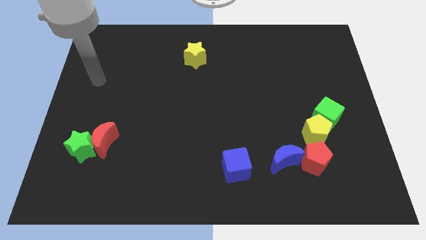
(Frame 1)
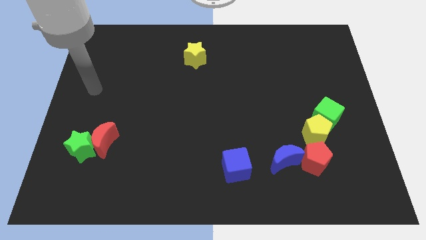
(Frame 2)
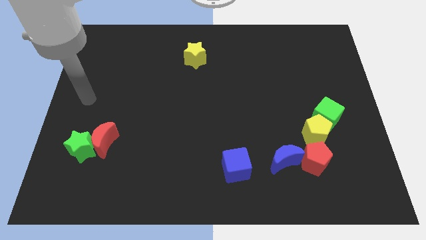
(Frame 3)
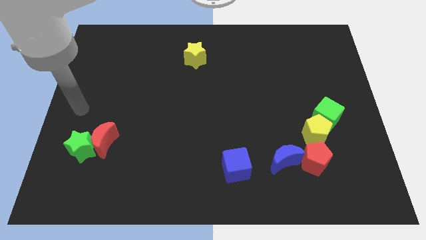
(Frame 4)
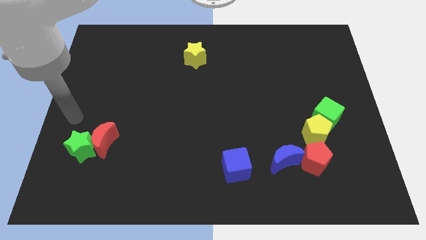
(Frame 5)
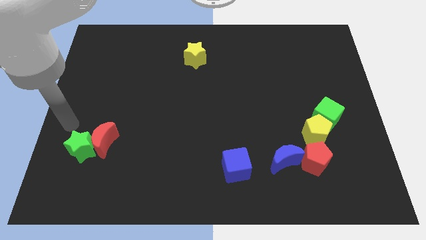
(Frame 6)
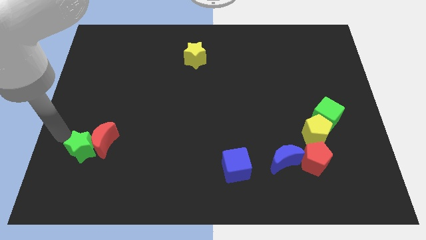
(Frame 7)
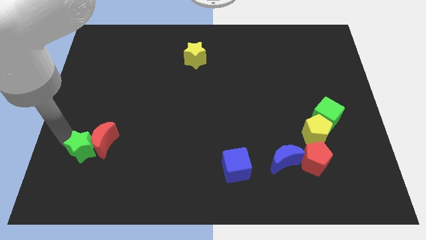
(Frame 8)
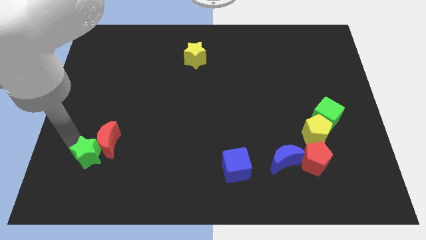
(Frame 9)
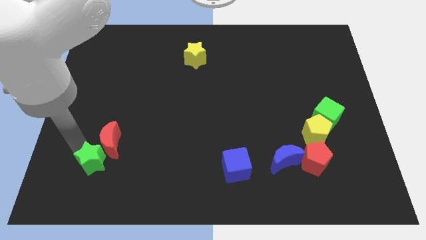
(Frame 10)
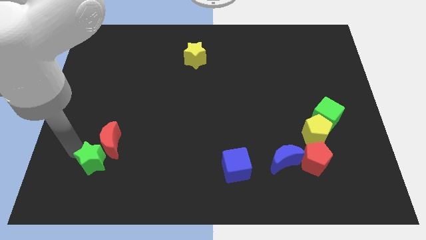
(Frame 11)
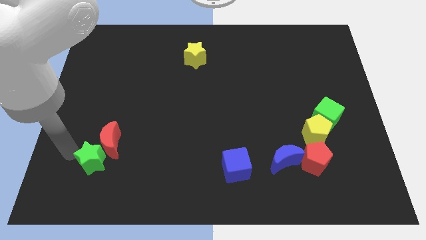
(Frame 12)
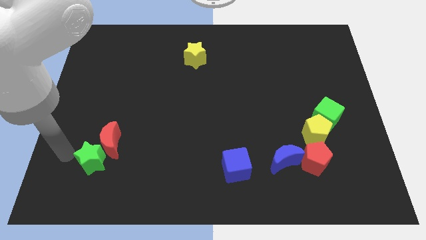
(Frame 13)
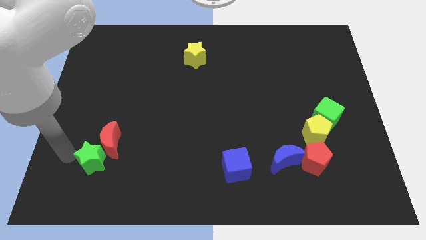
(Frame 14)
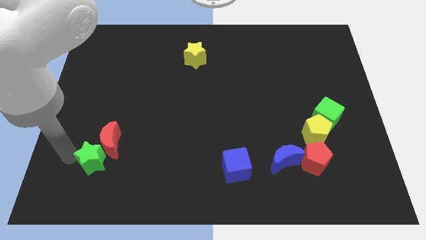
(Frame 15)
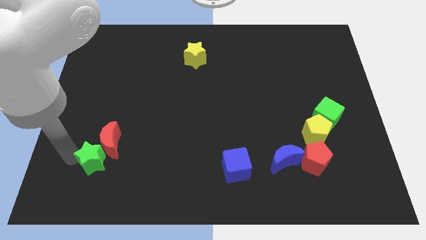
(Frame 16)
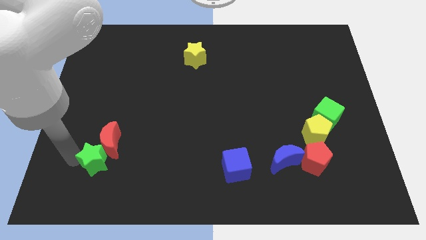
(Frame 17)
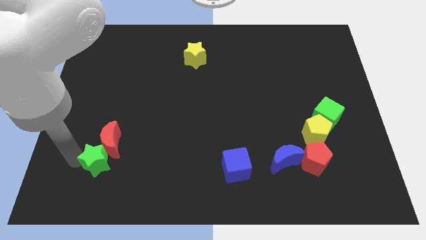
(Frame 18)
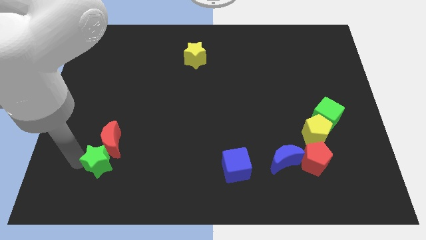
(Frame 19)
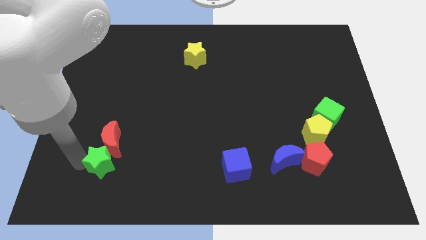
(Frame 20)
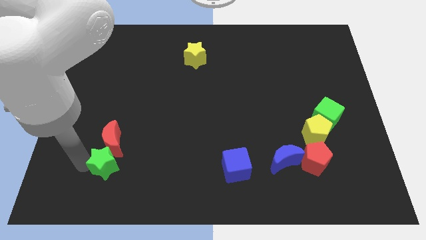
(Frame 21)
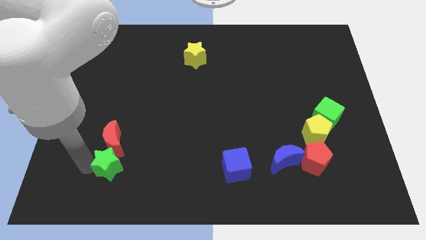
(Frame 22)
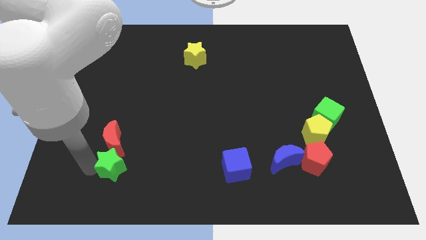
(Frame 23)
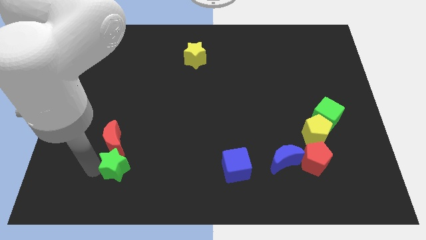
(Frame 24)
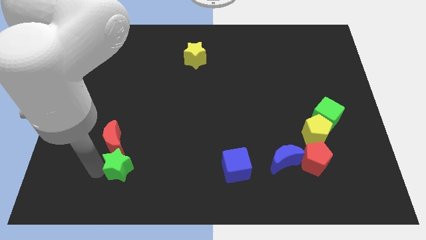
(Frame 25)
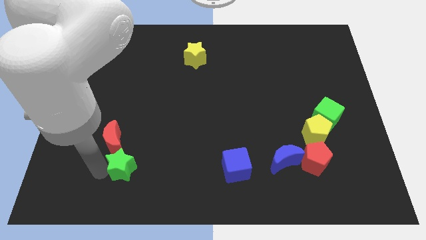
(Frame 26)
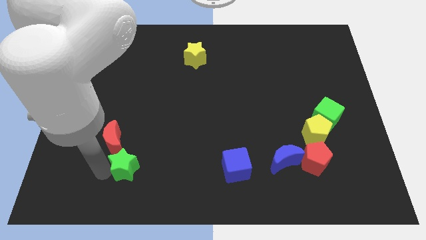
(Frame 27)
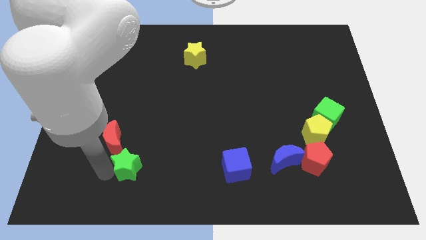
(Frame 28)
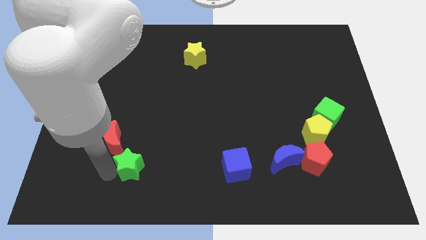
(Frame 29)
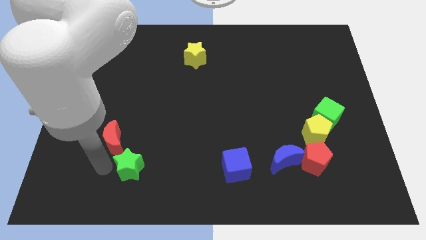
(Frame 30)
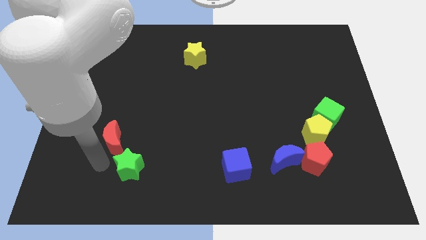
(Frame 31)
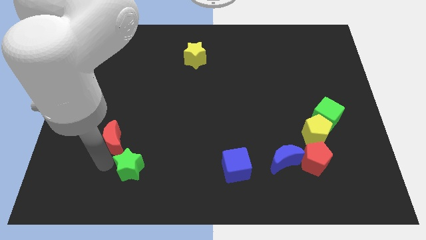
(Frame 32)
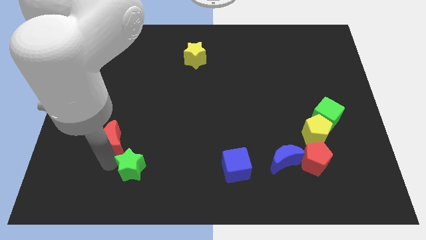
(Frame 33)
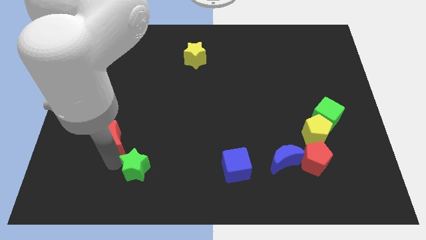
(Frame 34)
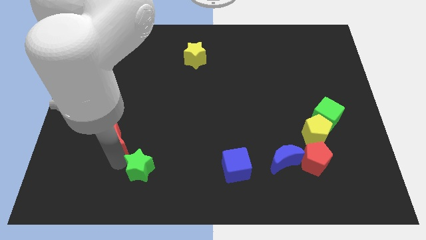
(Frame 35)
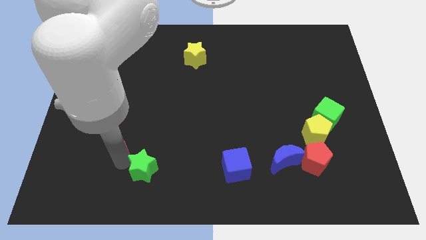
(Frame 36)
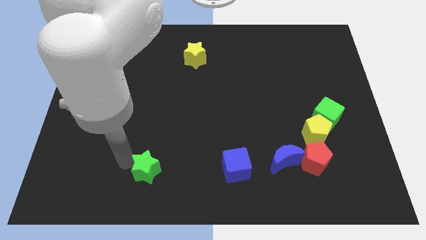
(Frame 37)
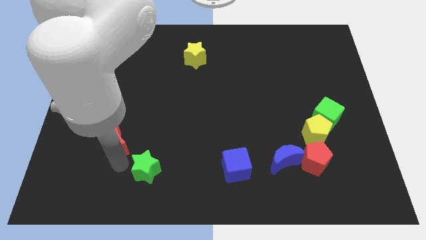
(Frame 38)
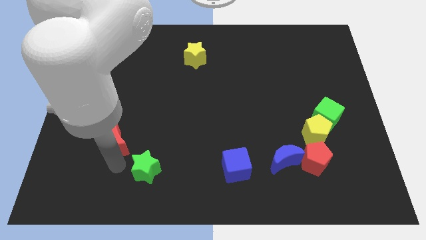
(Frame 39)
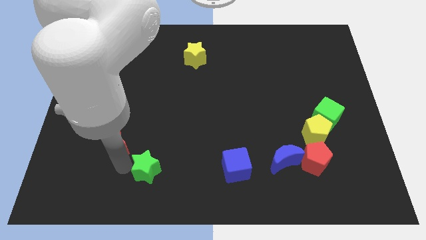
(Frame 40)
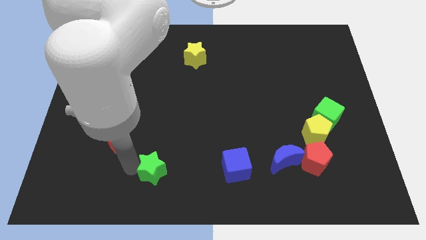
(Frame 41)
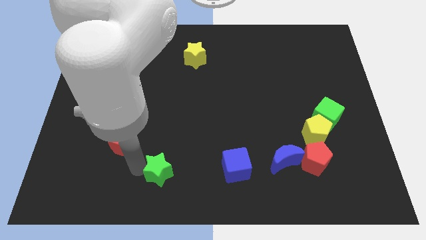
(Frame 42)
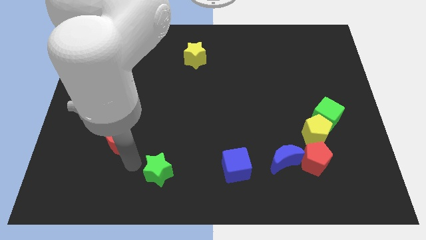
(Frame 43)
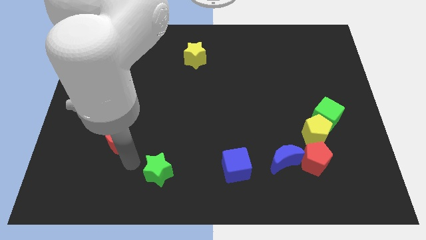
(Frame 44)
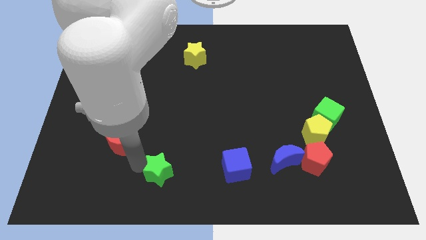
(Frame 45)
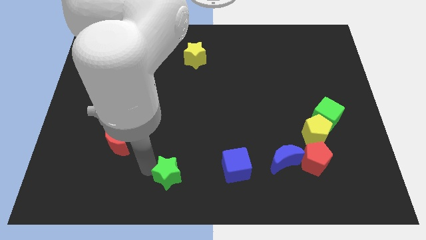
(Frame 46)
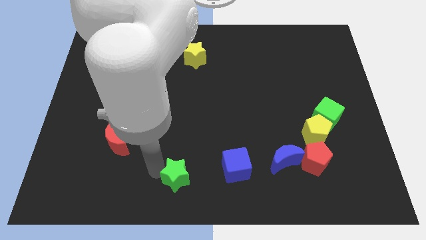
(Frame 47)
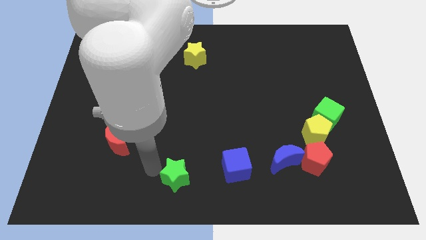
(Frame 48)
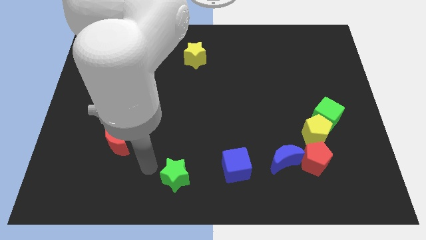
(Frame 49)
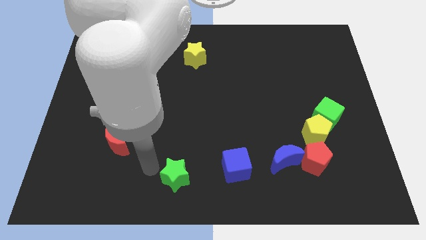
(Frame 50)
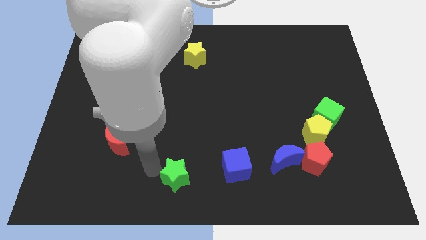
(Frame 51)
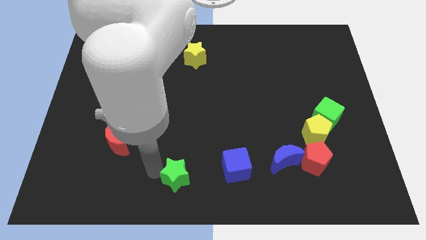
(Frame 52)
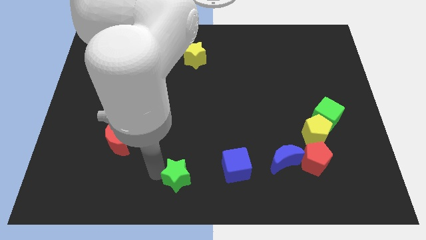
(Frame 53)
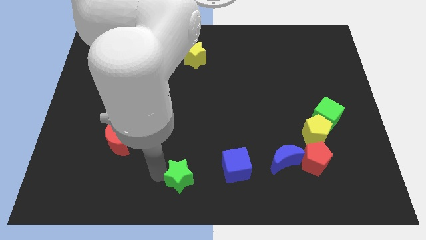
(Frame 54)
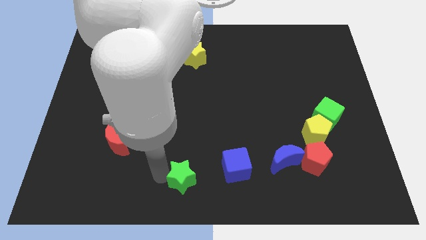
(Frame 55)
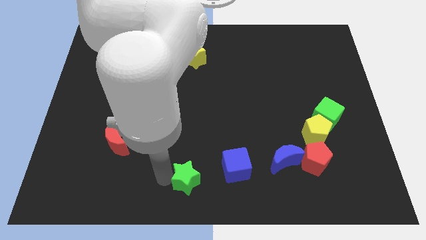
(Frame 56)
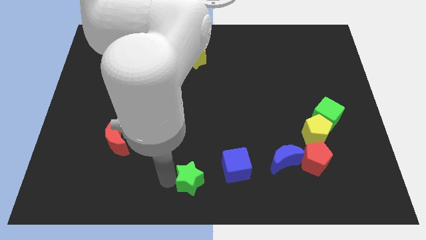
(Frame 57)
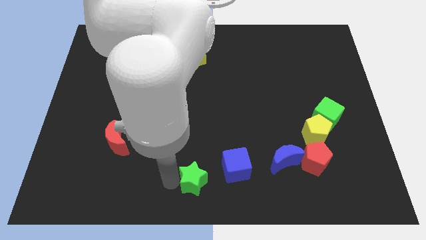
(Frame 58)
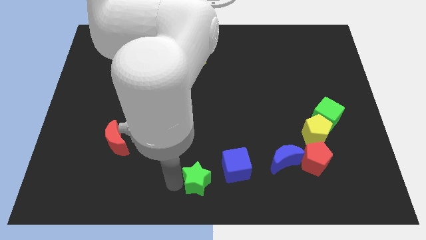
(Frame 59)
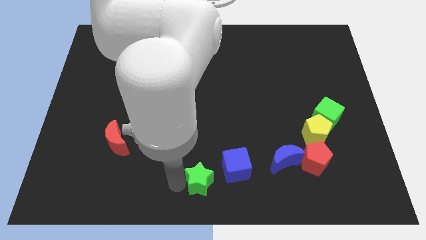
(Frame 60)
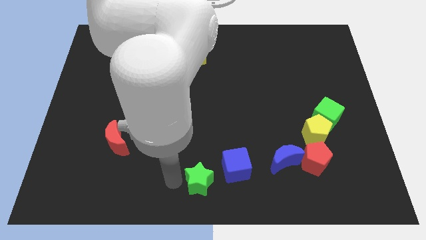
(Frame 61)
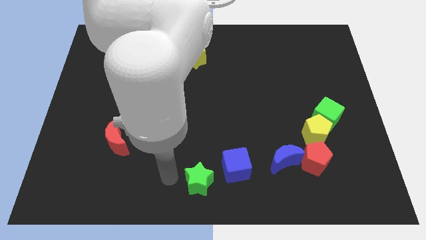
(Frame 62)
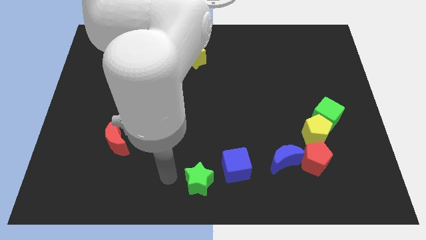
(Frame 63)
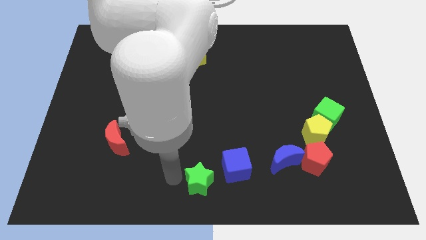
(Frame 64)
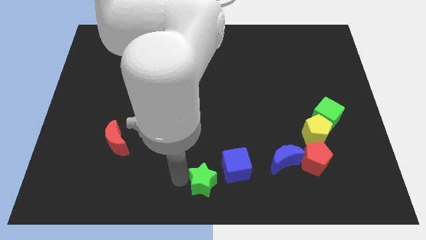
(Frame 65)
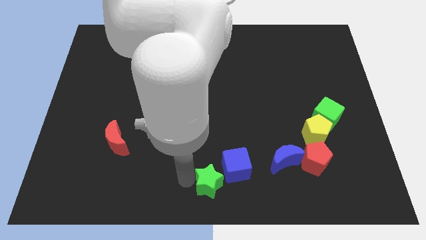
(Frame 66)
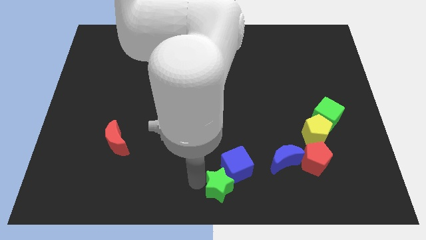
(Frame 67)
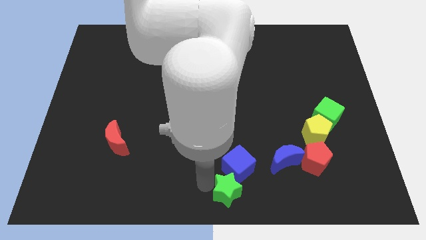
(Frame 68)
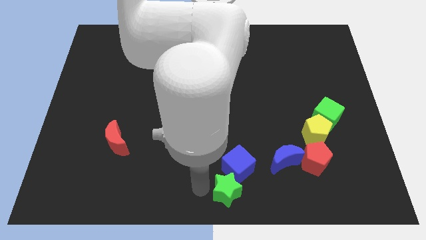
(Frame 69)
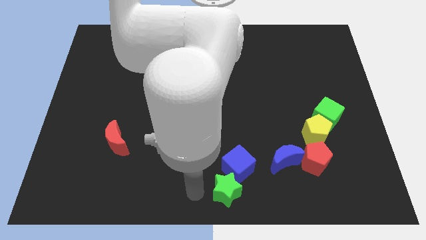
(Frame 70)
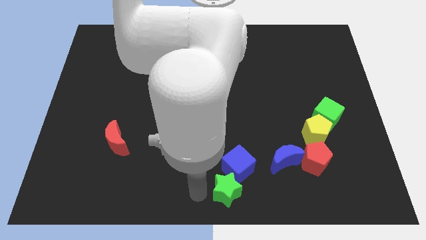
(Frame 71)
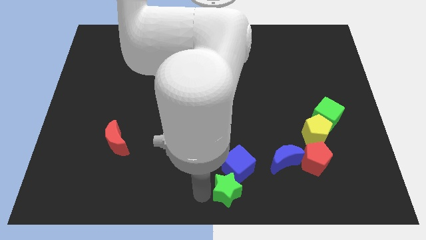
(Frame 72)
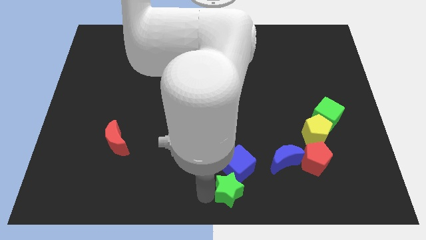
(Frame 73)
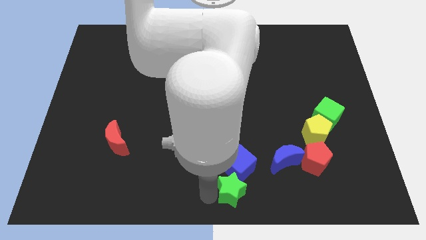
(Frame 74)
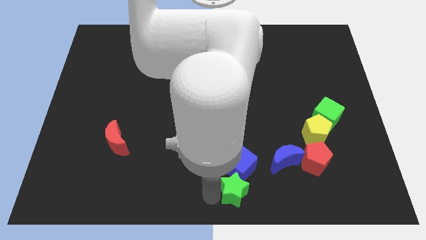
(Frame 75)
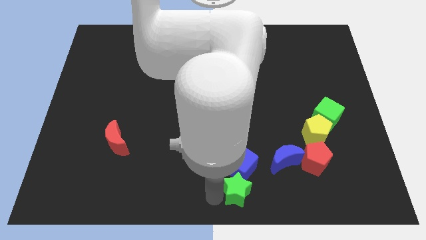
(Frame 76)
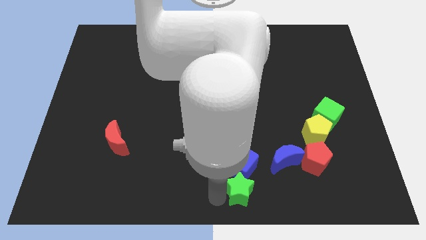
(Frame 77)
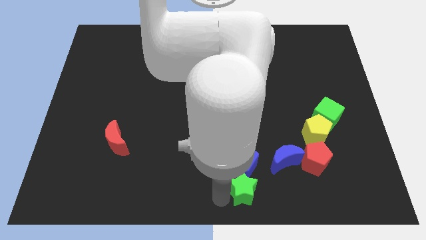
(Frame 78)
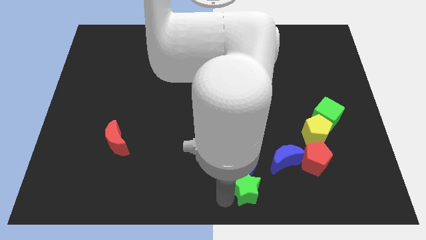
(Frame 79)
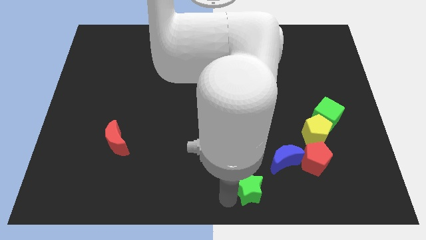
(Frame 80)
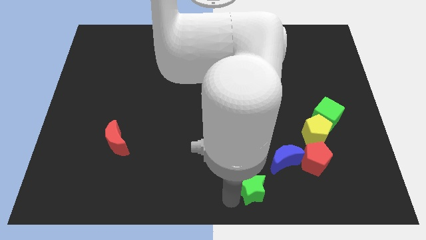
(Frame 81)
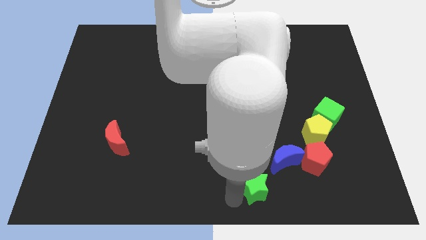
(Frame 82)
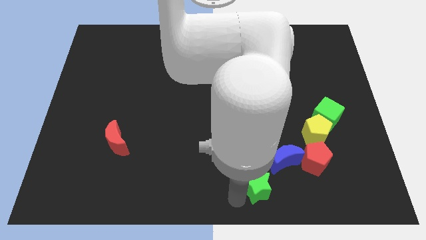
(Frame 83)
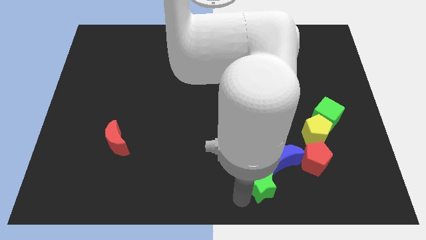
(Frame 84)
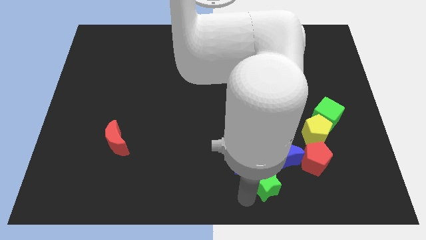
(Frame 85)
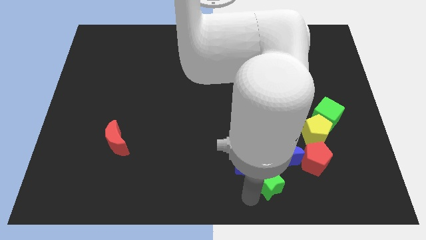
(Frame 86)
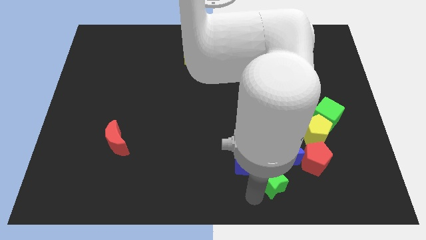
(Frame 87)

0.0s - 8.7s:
push the green star next to the blue moon
